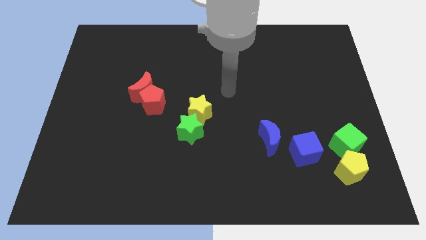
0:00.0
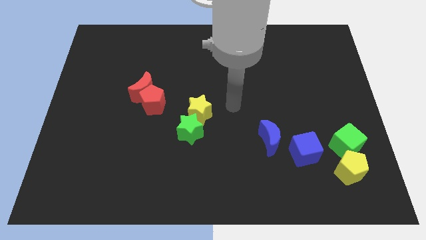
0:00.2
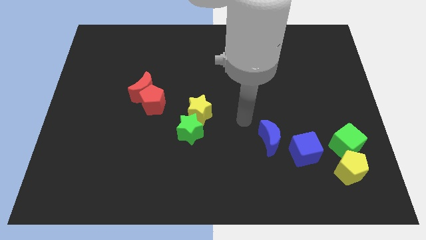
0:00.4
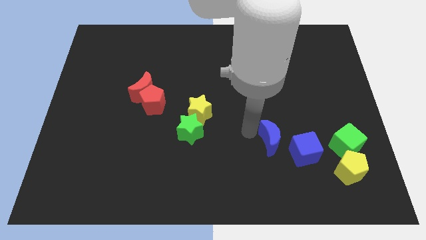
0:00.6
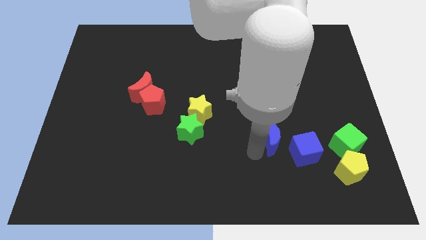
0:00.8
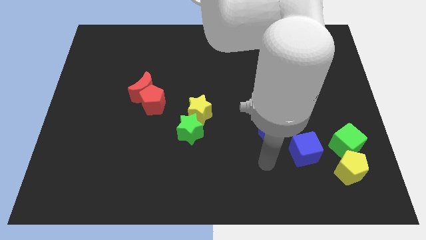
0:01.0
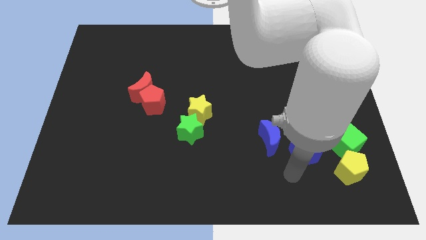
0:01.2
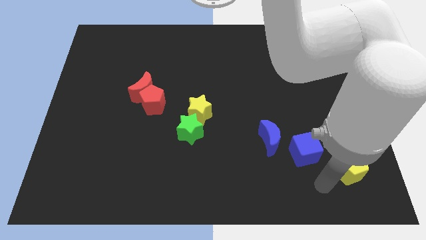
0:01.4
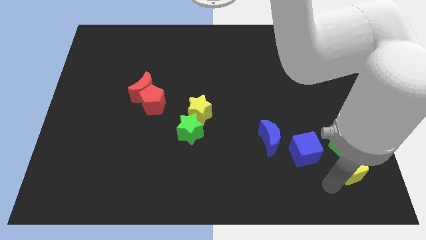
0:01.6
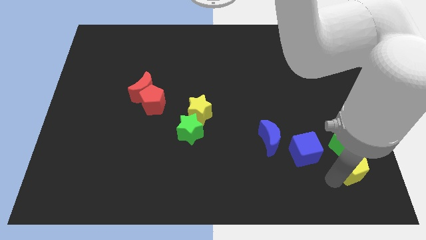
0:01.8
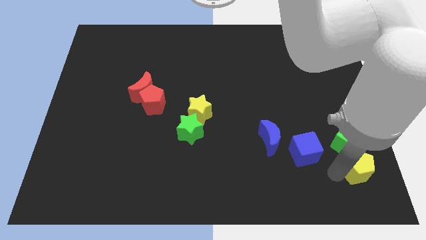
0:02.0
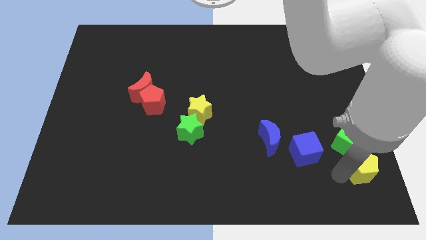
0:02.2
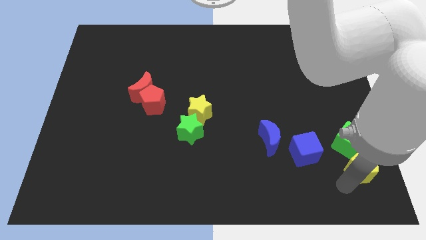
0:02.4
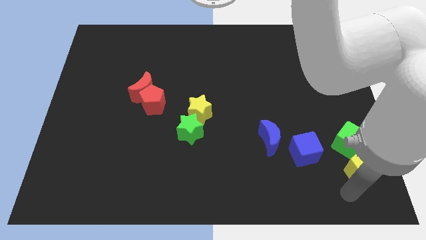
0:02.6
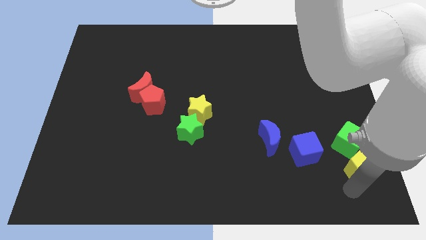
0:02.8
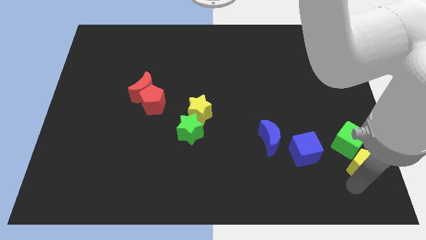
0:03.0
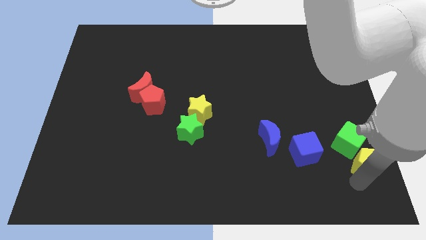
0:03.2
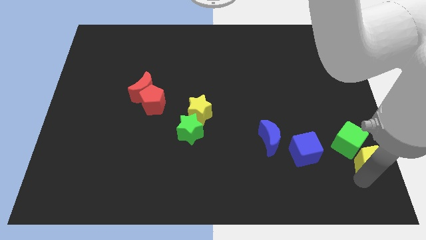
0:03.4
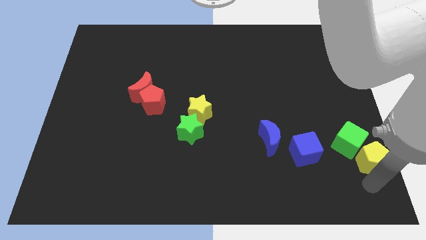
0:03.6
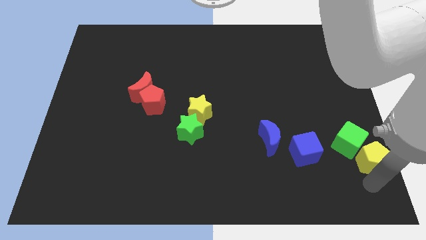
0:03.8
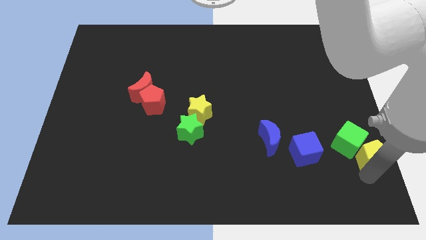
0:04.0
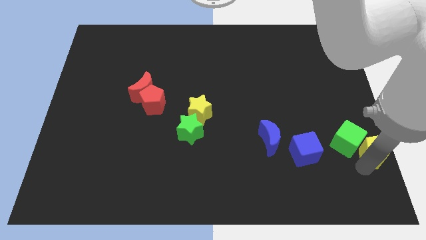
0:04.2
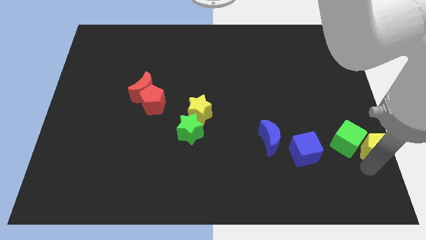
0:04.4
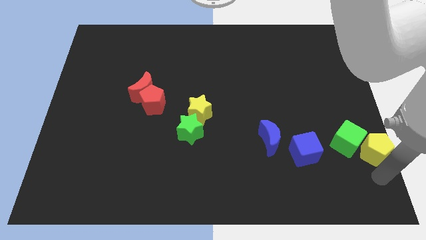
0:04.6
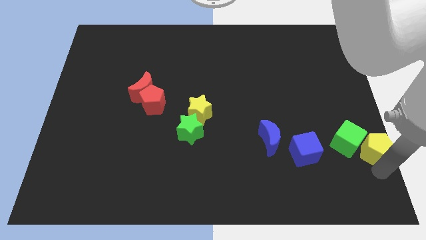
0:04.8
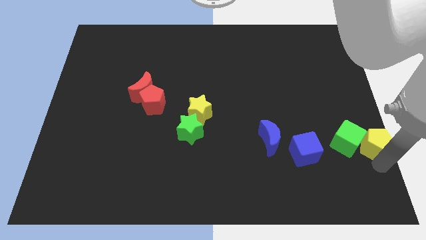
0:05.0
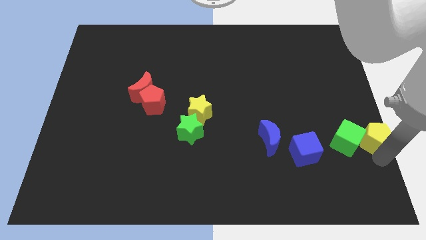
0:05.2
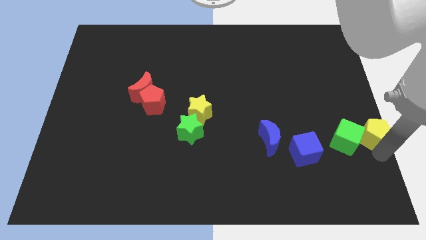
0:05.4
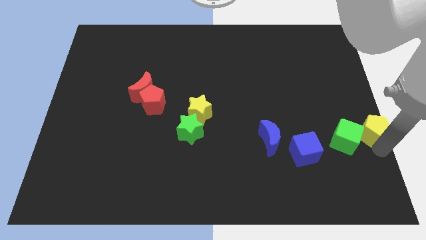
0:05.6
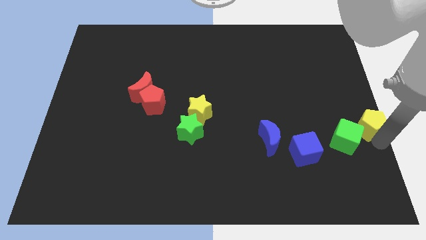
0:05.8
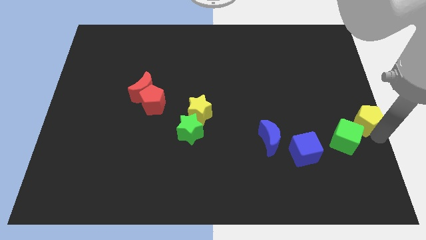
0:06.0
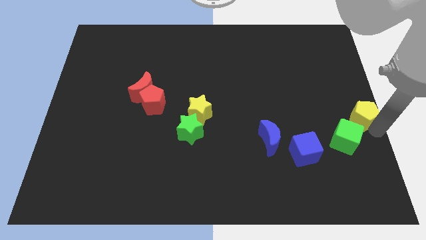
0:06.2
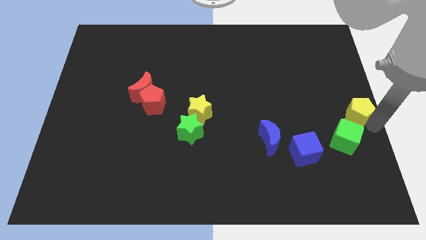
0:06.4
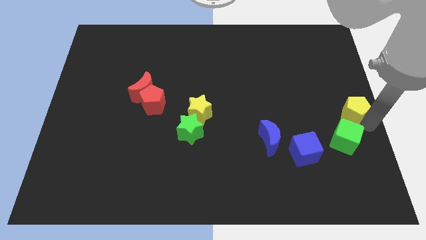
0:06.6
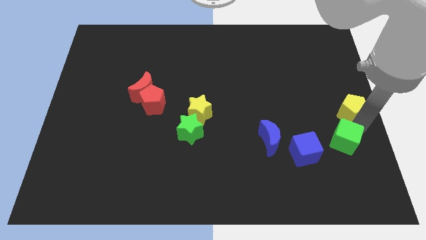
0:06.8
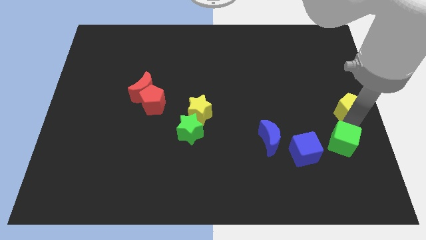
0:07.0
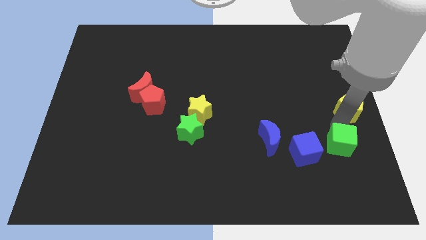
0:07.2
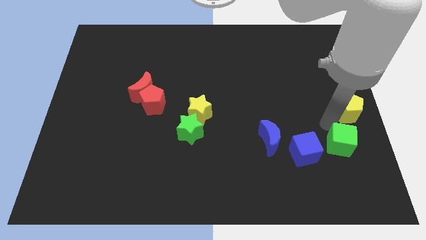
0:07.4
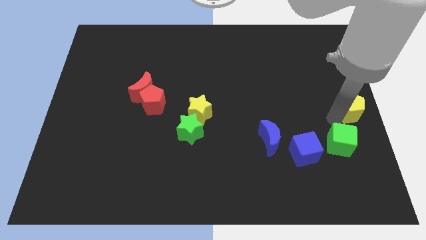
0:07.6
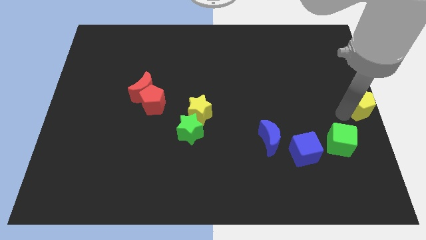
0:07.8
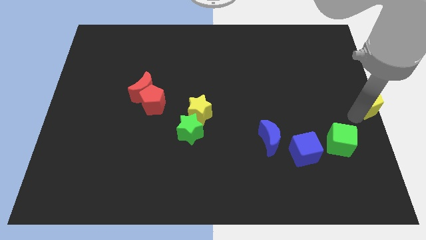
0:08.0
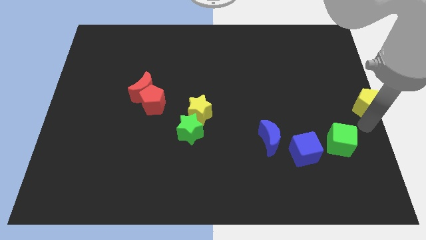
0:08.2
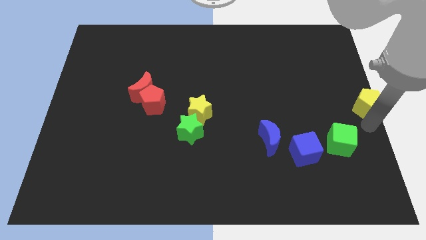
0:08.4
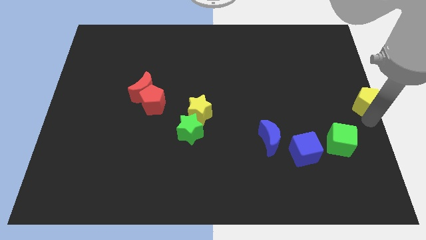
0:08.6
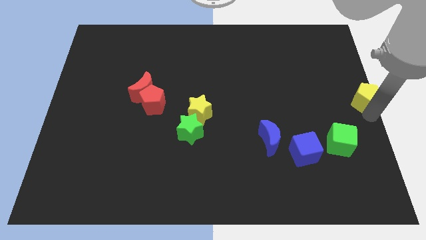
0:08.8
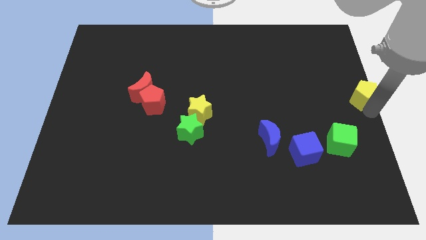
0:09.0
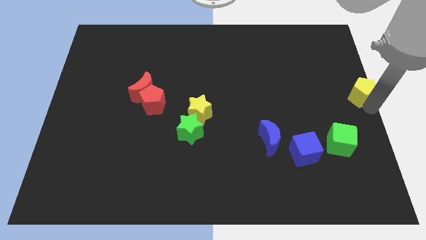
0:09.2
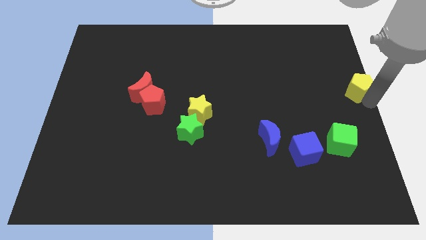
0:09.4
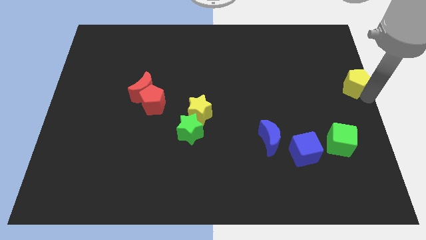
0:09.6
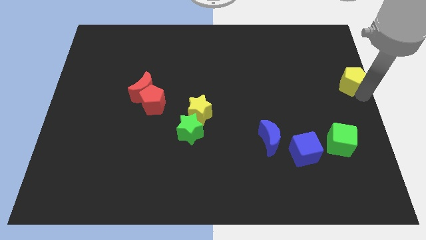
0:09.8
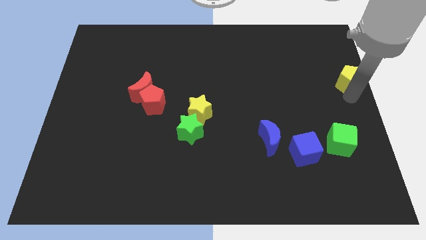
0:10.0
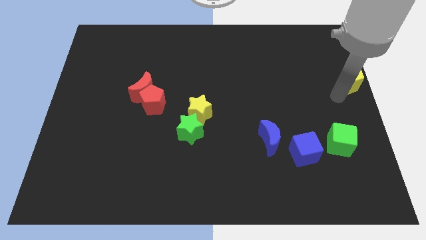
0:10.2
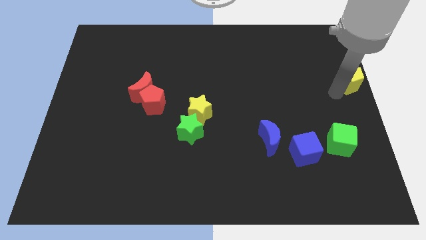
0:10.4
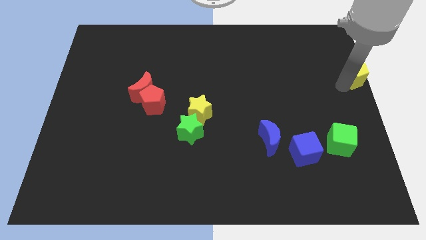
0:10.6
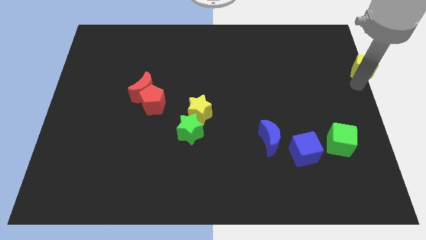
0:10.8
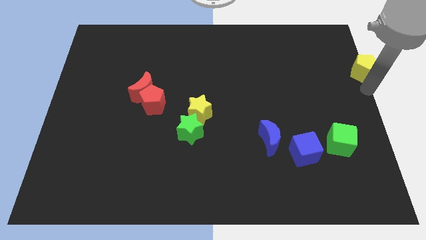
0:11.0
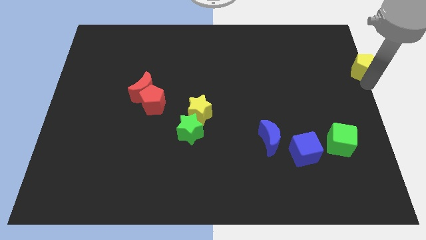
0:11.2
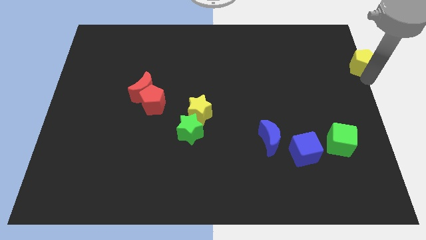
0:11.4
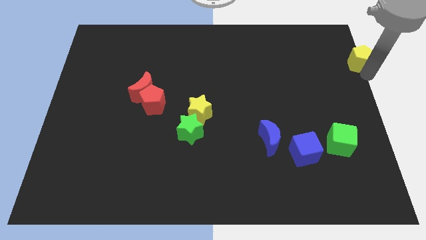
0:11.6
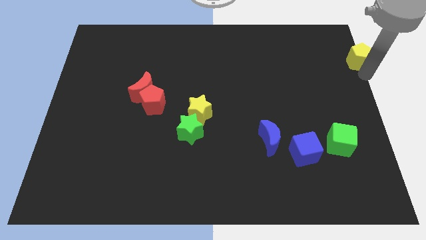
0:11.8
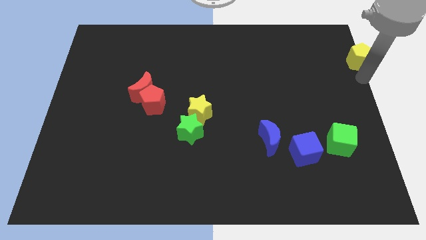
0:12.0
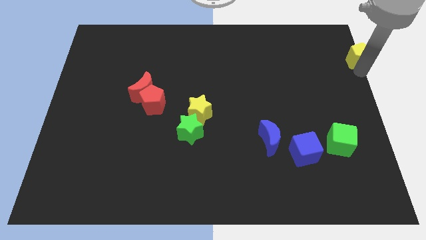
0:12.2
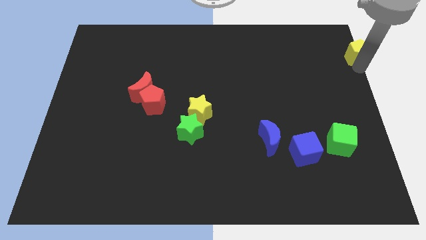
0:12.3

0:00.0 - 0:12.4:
push the yellow pentagon to the top right of the board
